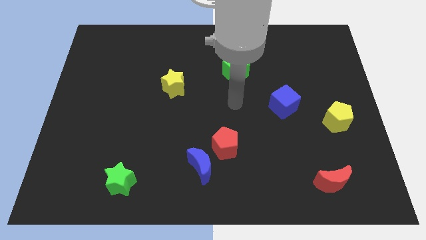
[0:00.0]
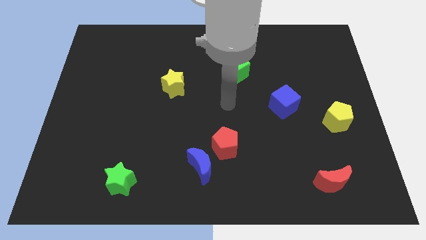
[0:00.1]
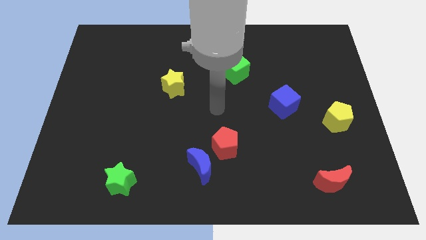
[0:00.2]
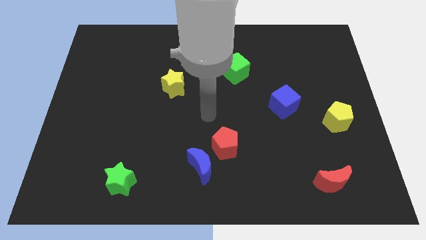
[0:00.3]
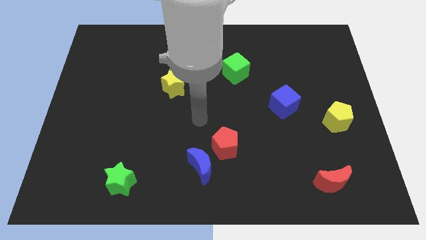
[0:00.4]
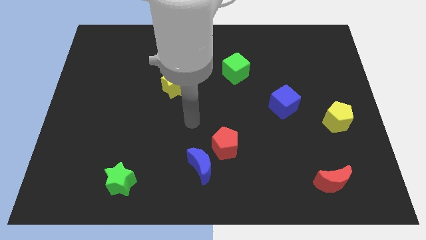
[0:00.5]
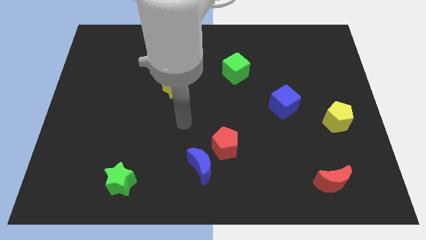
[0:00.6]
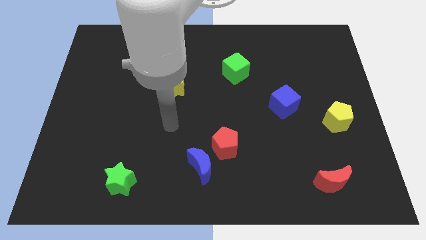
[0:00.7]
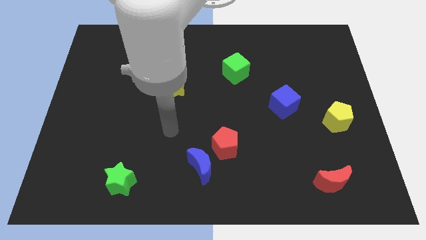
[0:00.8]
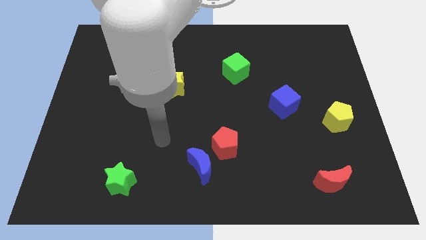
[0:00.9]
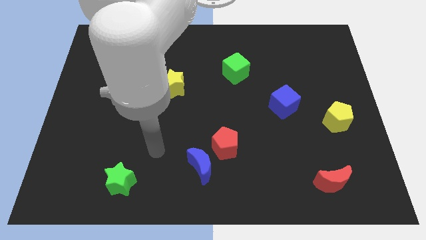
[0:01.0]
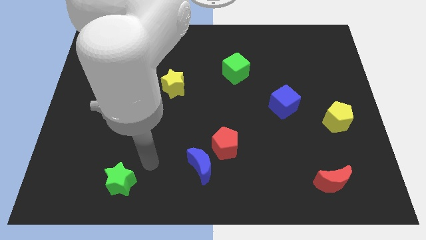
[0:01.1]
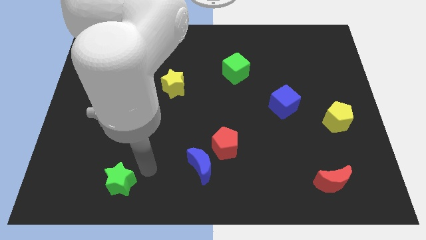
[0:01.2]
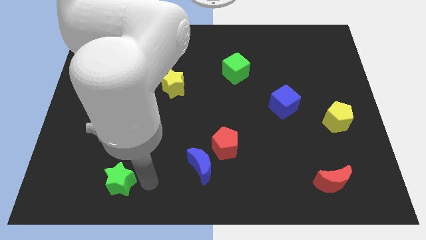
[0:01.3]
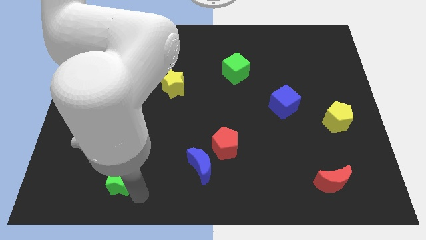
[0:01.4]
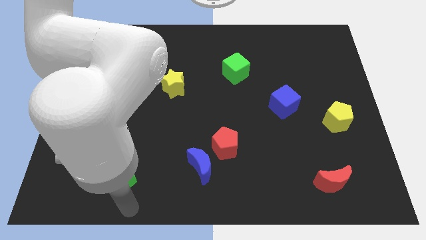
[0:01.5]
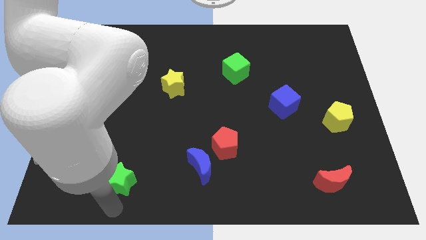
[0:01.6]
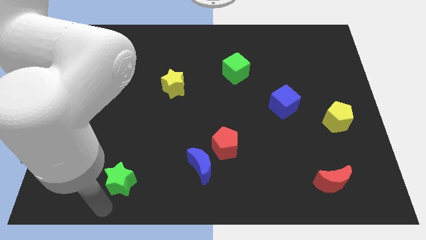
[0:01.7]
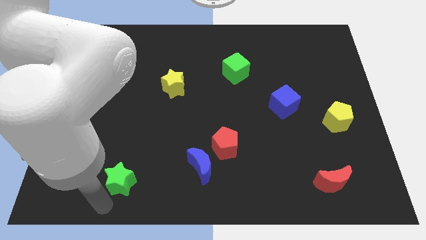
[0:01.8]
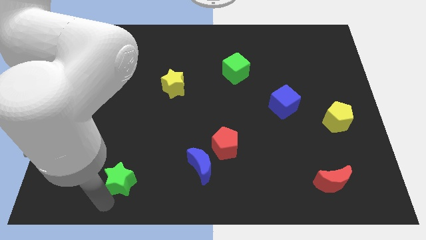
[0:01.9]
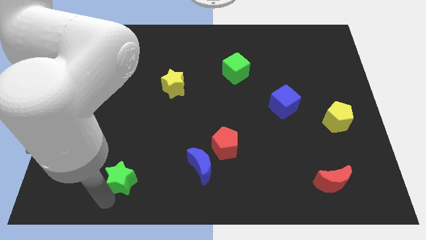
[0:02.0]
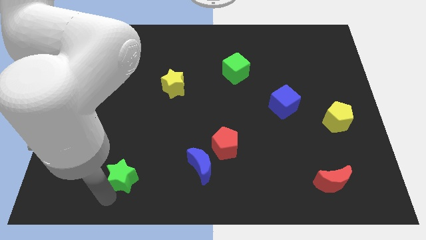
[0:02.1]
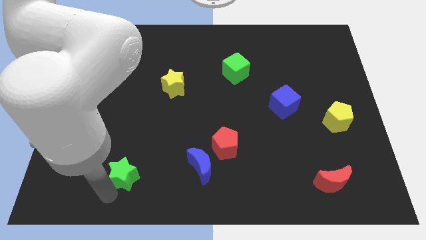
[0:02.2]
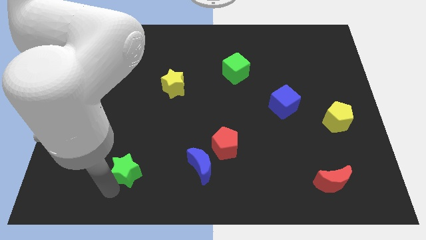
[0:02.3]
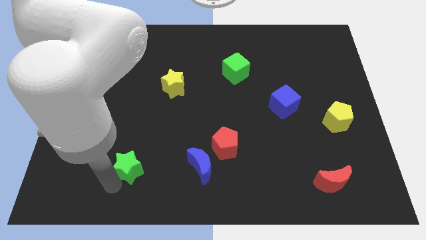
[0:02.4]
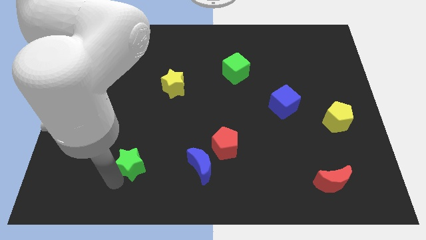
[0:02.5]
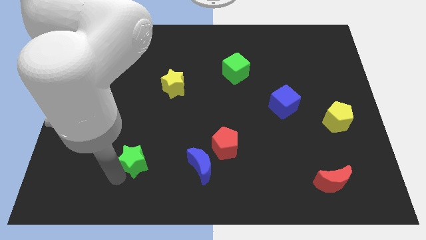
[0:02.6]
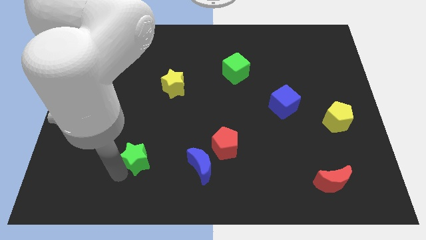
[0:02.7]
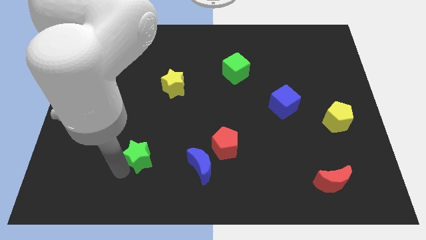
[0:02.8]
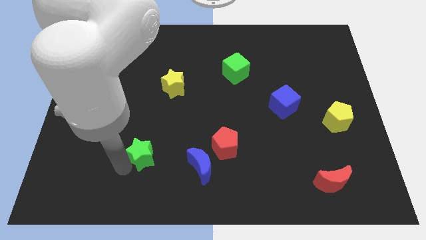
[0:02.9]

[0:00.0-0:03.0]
slightly slide the green star upwards and then right

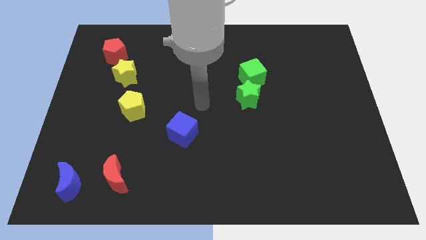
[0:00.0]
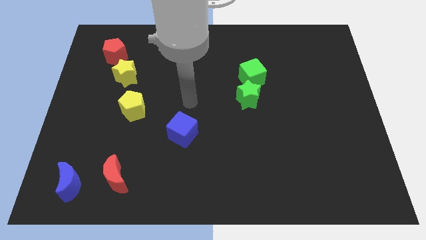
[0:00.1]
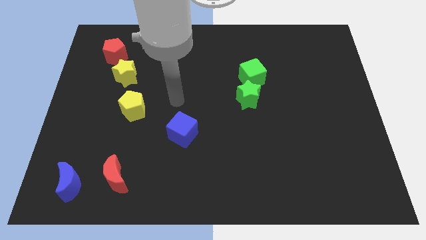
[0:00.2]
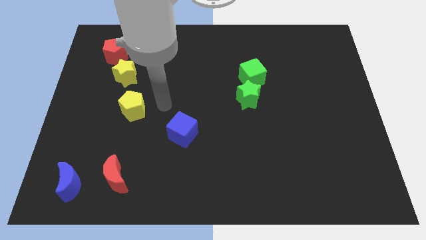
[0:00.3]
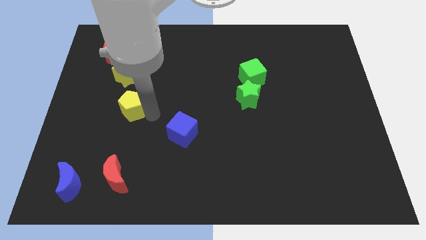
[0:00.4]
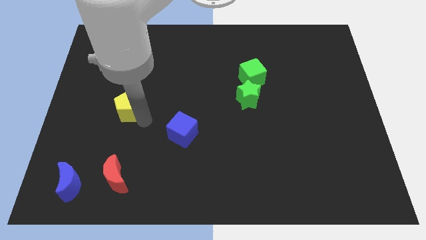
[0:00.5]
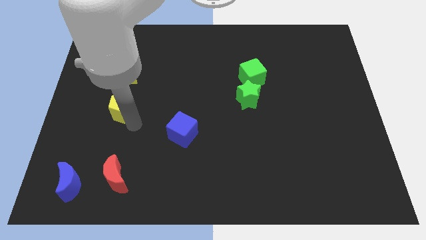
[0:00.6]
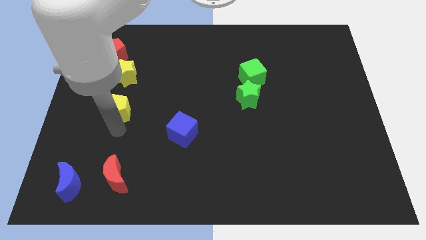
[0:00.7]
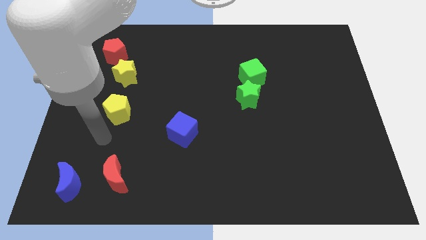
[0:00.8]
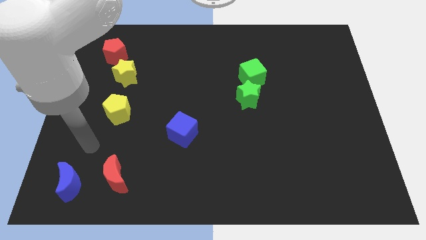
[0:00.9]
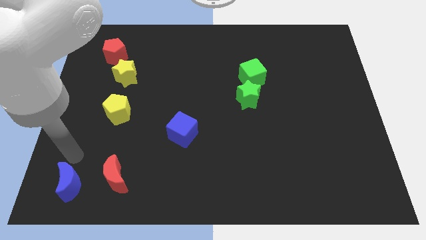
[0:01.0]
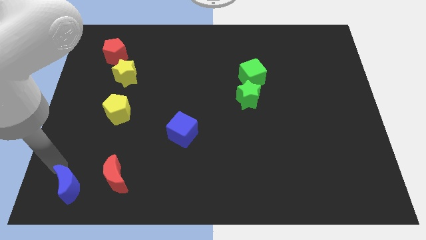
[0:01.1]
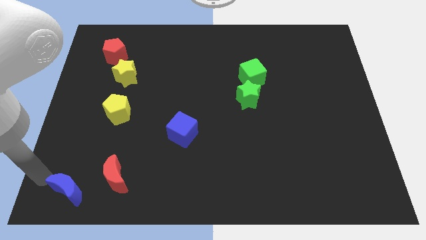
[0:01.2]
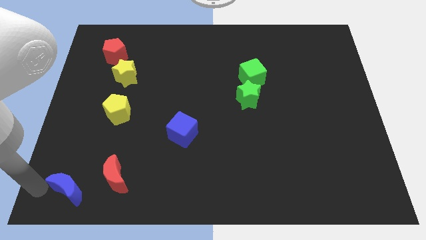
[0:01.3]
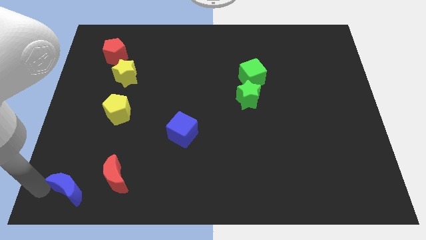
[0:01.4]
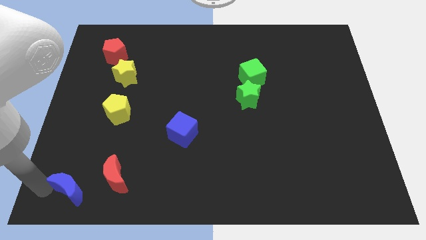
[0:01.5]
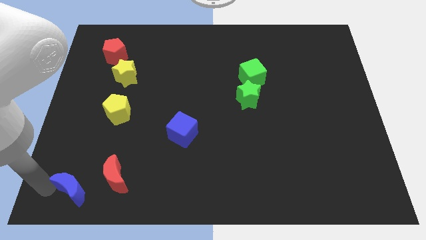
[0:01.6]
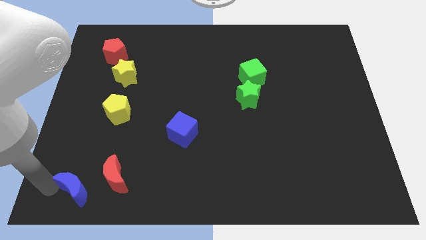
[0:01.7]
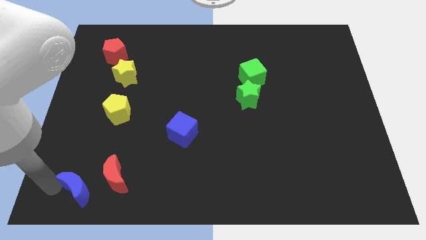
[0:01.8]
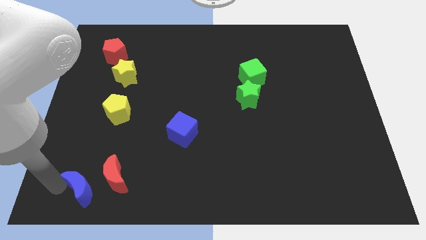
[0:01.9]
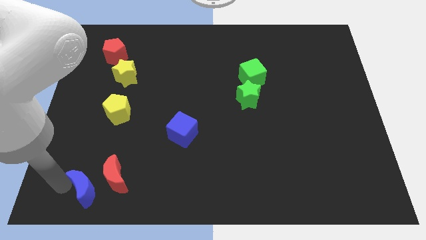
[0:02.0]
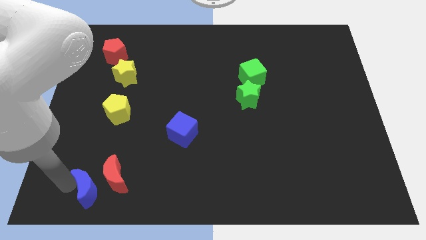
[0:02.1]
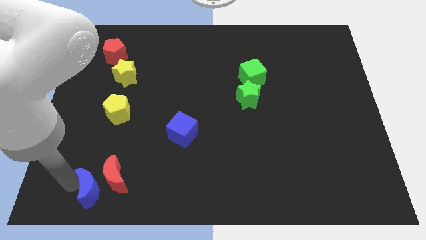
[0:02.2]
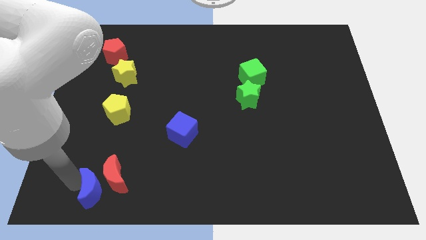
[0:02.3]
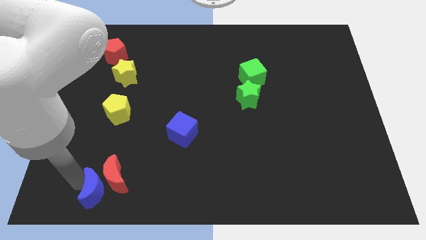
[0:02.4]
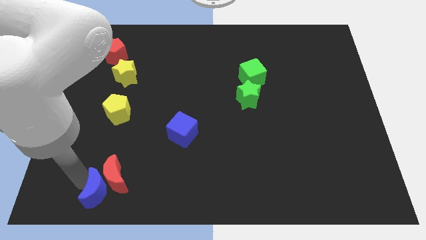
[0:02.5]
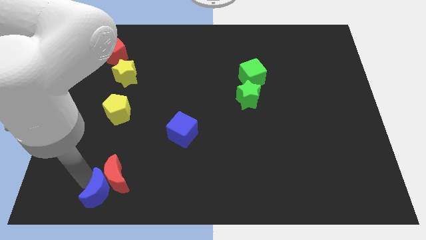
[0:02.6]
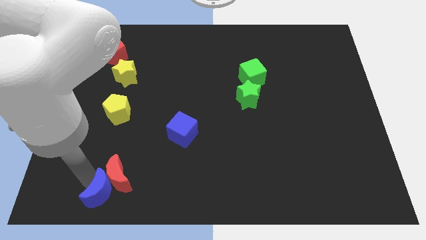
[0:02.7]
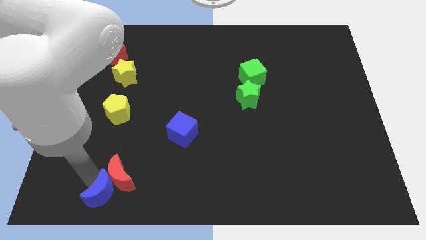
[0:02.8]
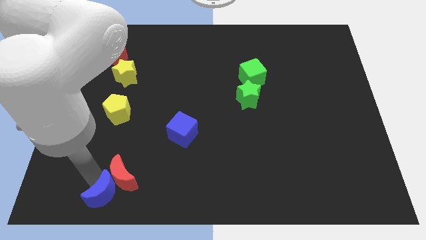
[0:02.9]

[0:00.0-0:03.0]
move the blue moon a little bit to the right

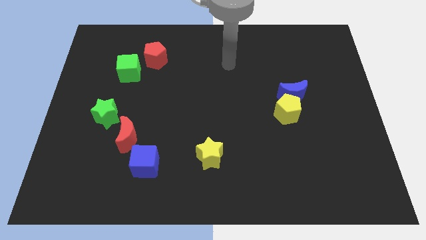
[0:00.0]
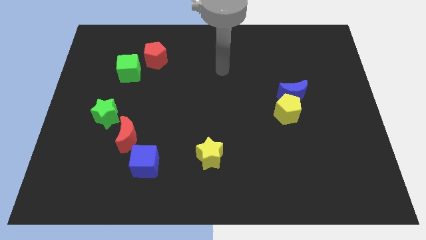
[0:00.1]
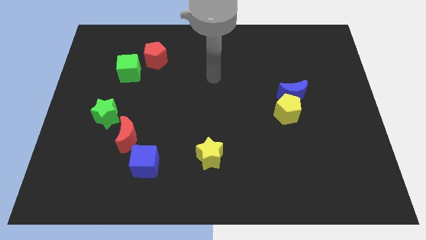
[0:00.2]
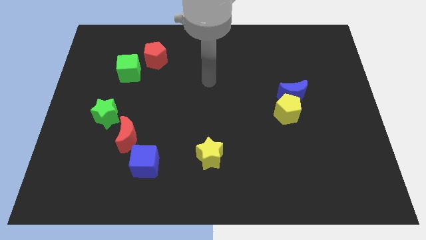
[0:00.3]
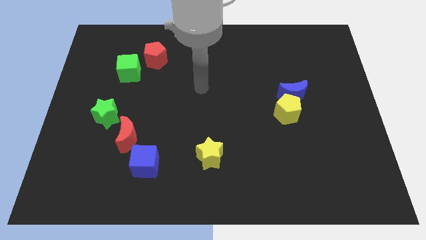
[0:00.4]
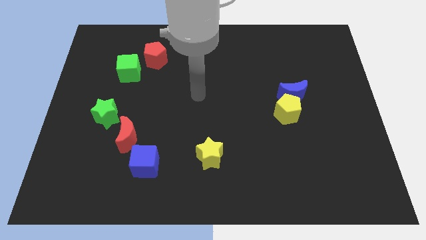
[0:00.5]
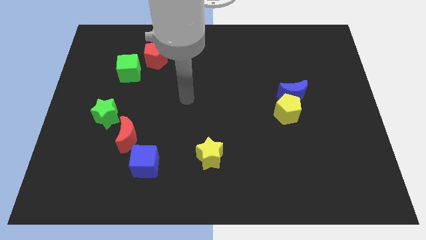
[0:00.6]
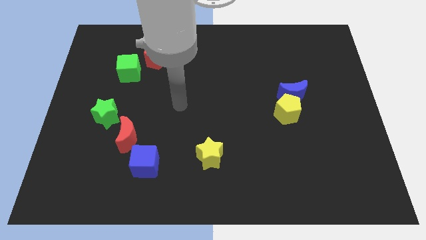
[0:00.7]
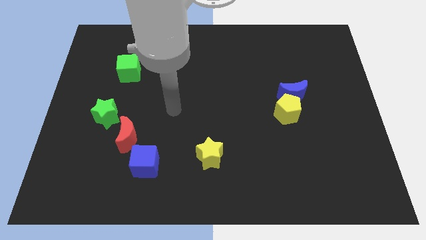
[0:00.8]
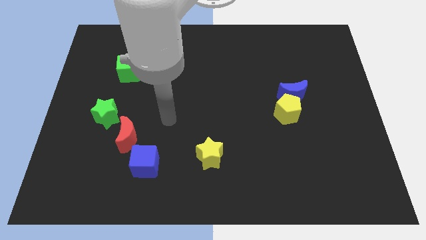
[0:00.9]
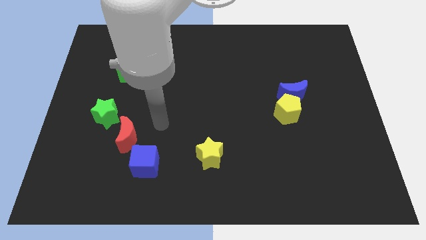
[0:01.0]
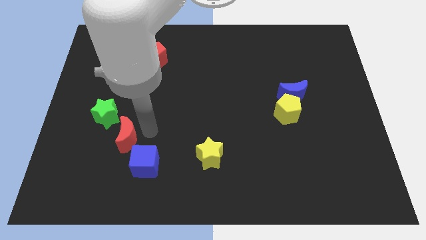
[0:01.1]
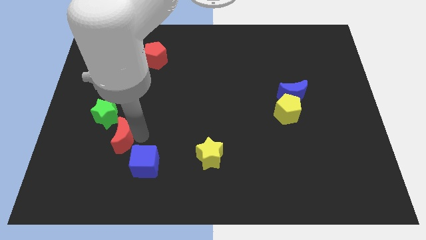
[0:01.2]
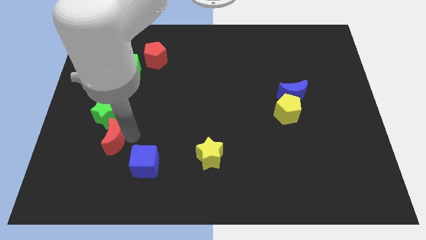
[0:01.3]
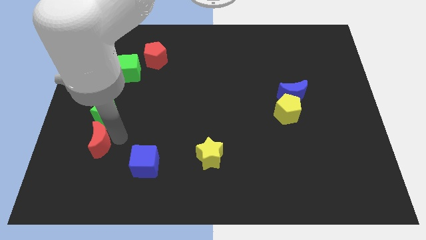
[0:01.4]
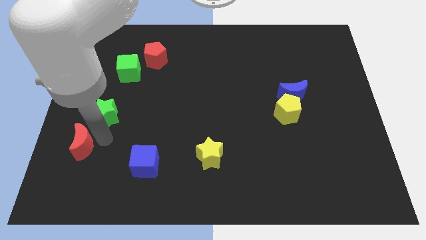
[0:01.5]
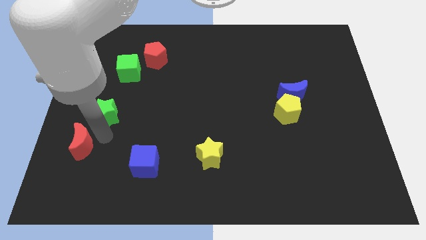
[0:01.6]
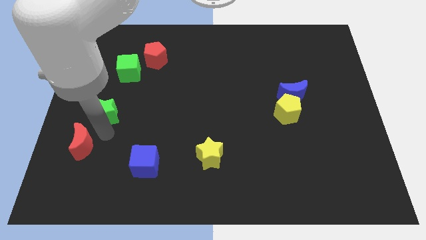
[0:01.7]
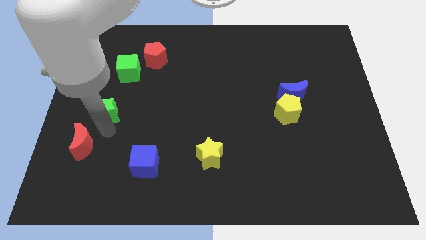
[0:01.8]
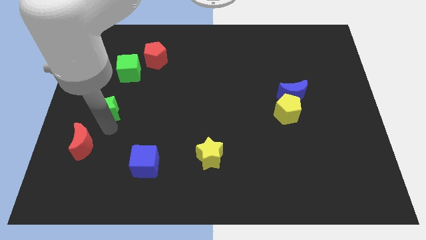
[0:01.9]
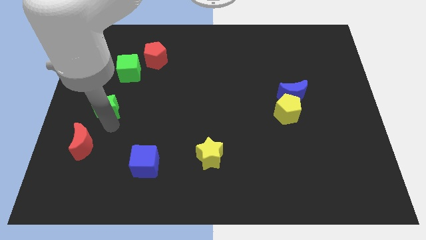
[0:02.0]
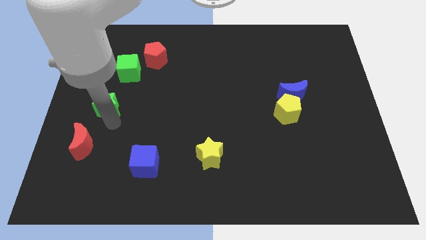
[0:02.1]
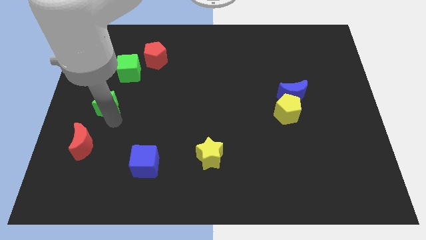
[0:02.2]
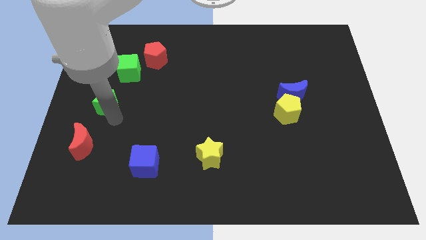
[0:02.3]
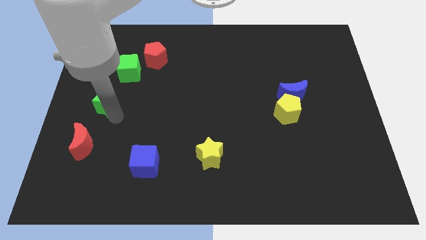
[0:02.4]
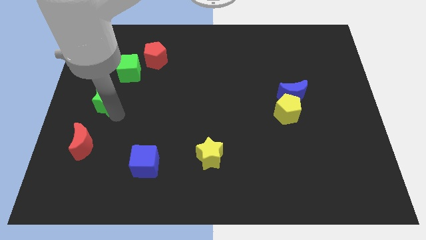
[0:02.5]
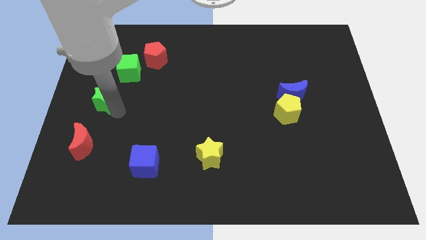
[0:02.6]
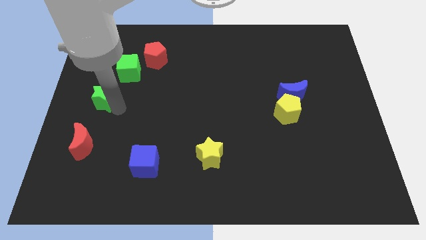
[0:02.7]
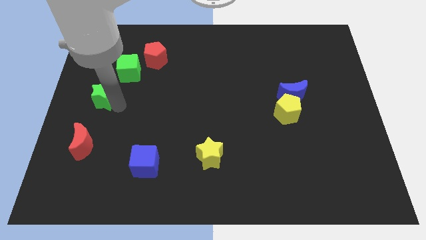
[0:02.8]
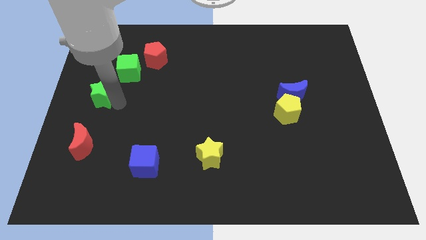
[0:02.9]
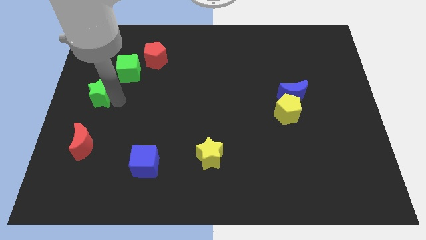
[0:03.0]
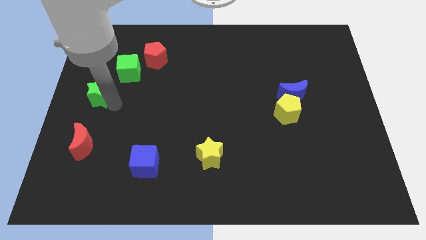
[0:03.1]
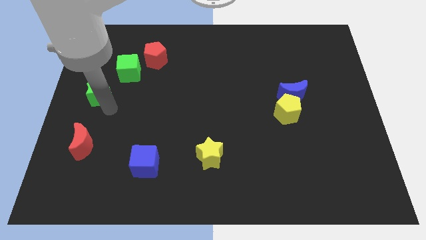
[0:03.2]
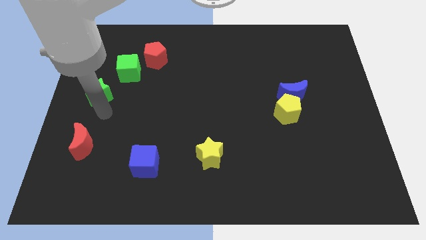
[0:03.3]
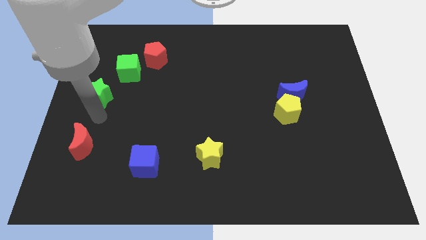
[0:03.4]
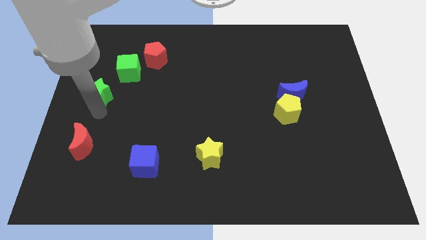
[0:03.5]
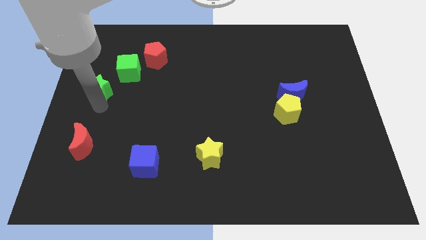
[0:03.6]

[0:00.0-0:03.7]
slide the green star up somewhat
